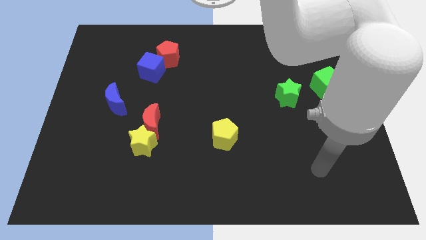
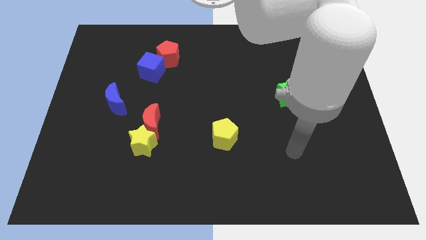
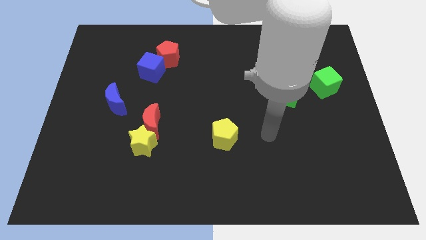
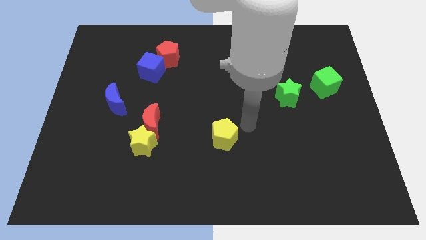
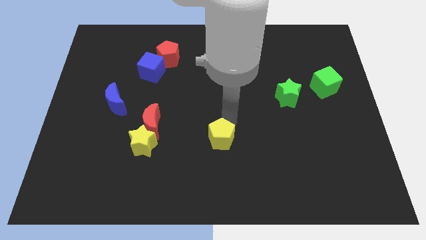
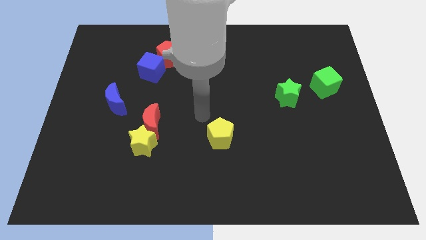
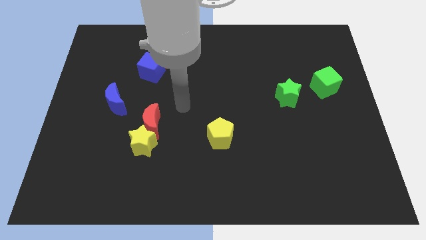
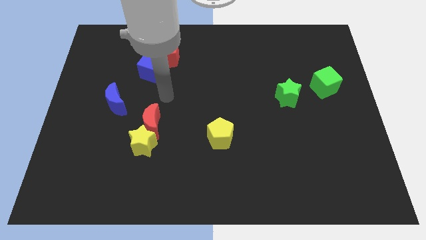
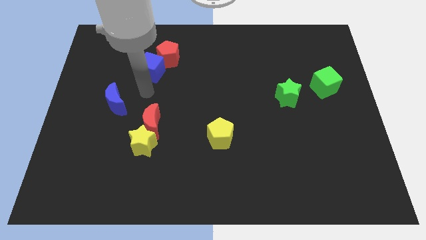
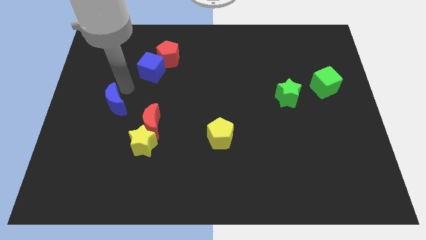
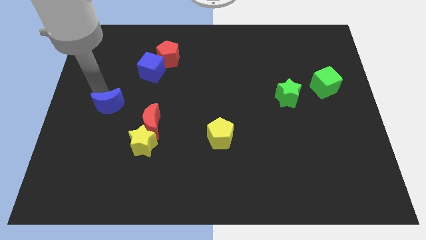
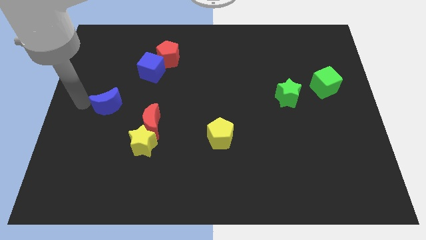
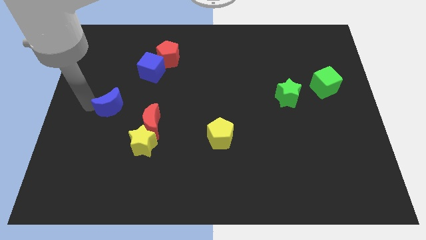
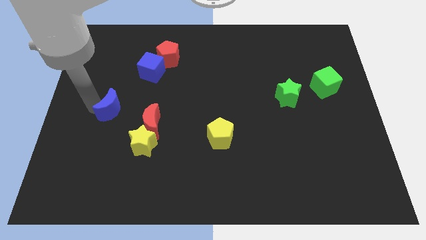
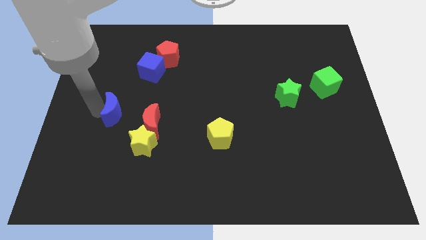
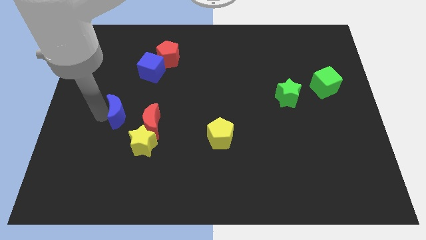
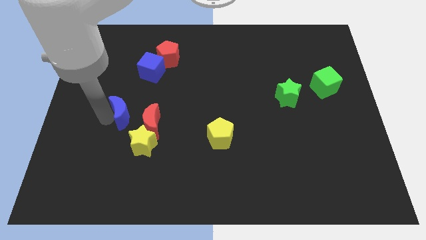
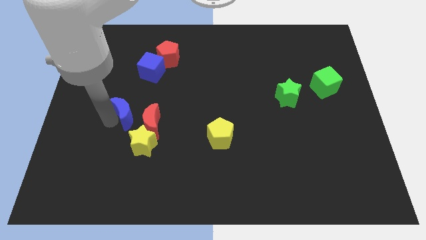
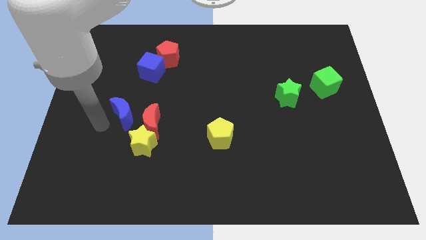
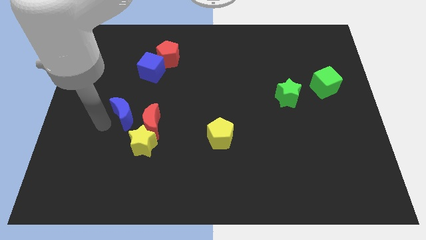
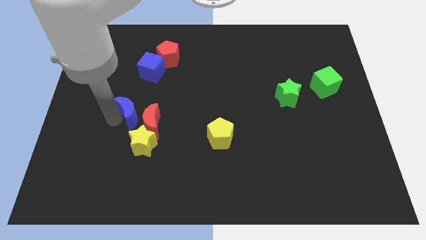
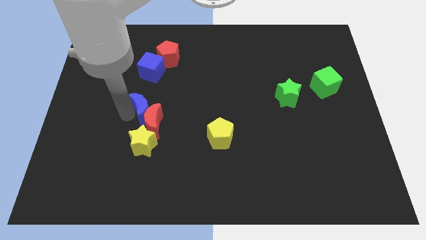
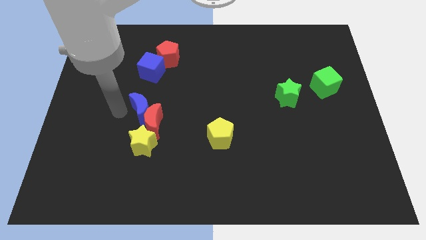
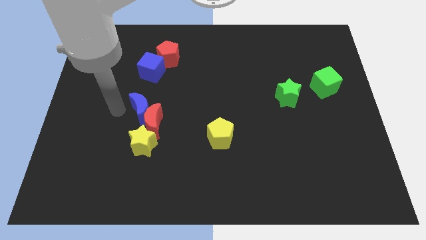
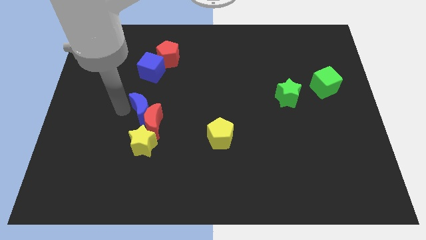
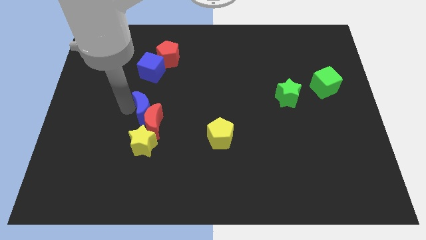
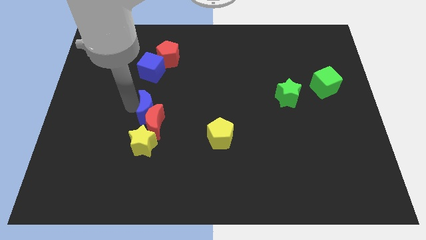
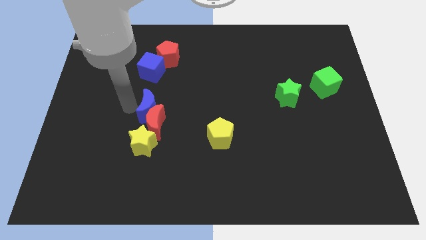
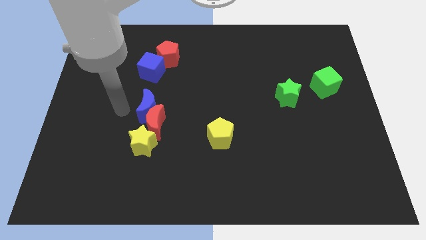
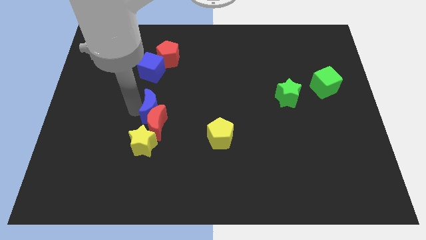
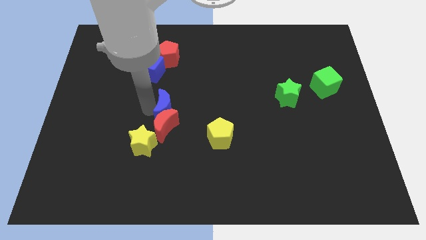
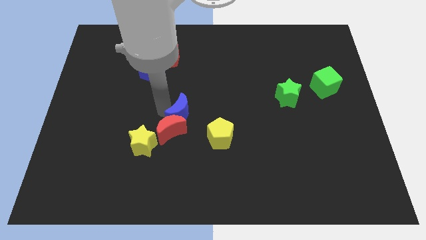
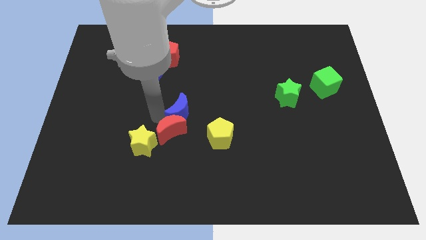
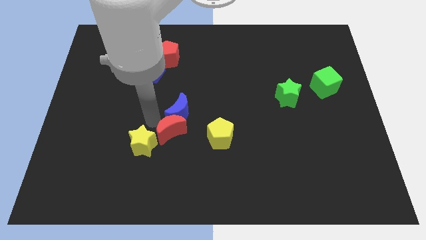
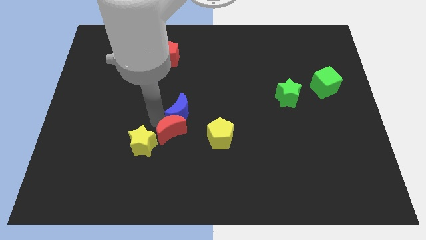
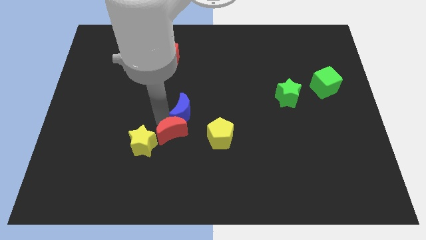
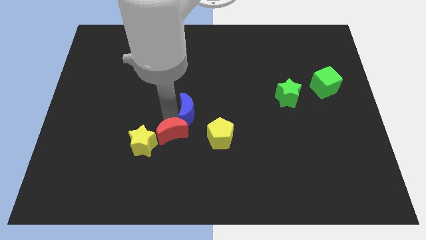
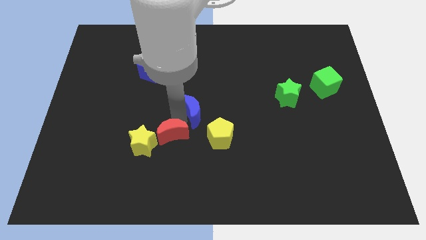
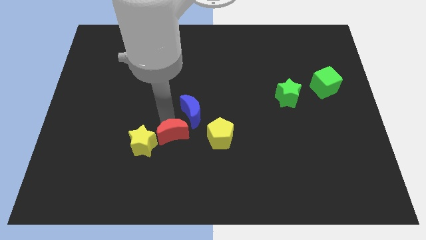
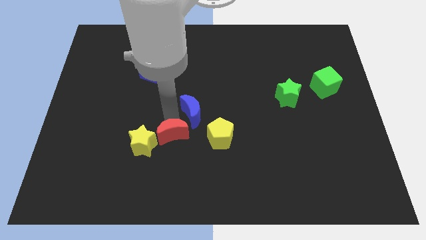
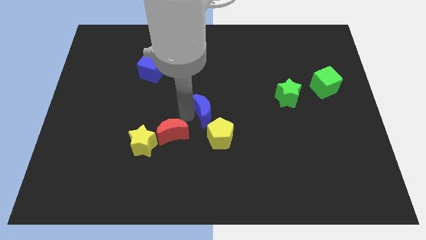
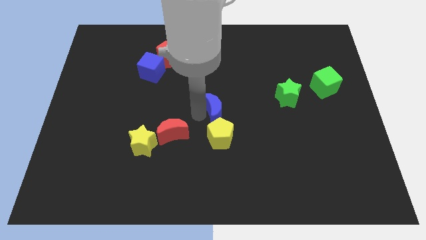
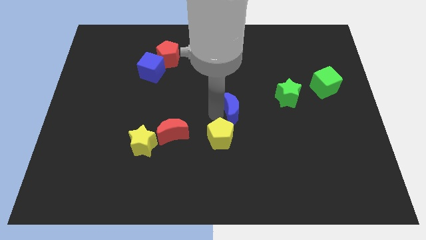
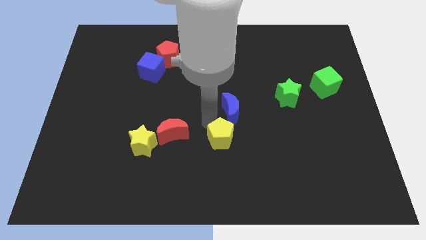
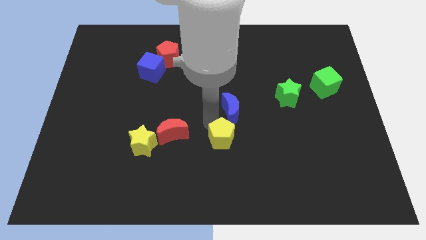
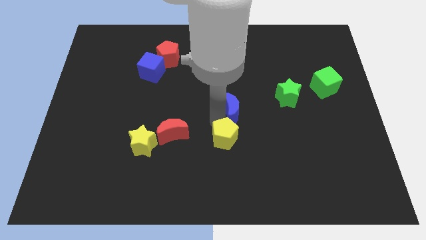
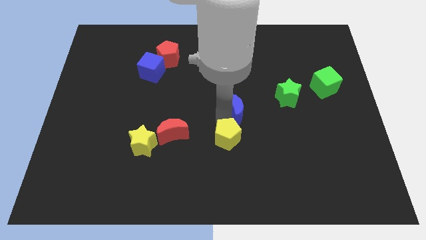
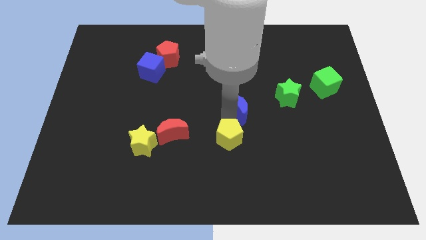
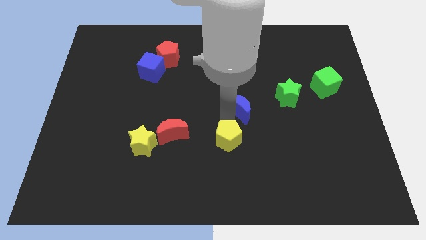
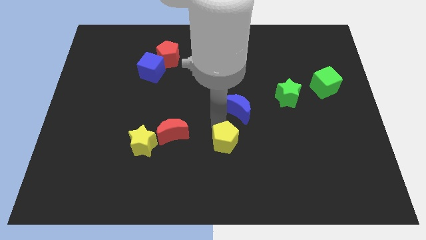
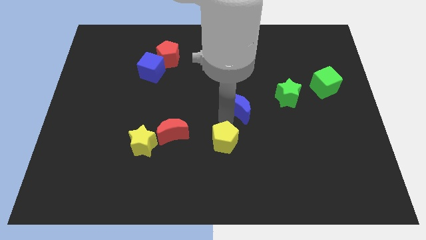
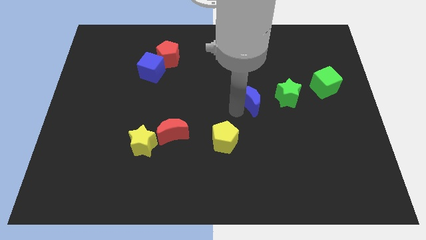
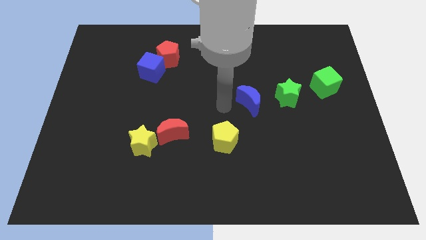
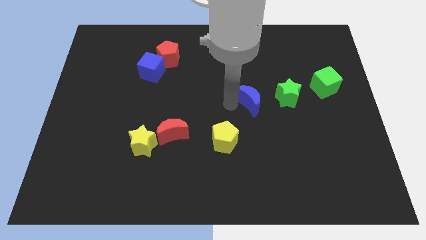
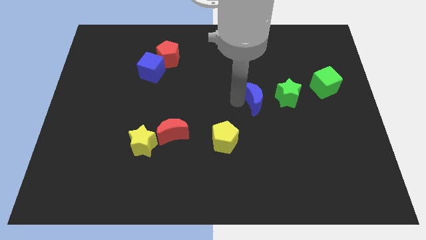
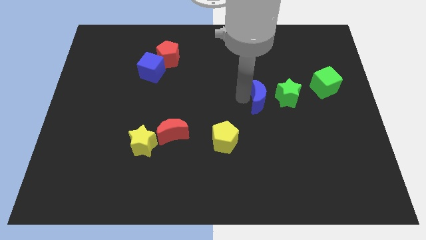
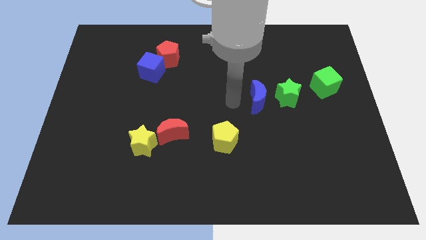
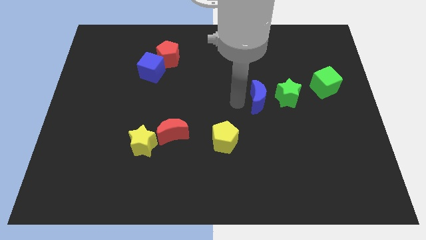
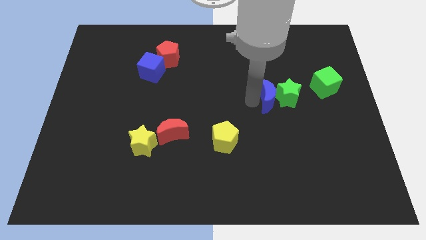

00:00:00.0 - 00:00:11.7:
push the blue moon next to the green star

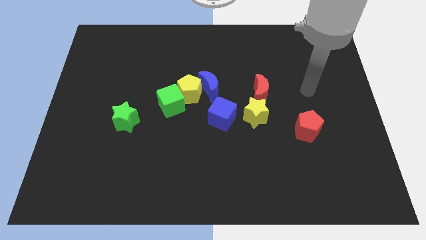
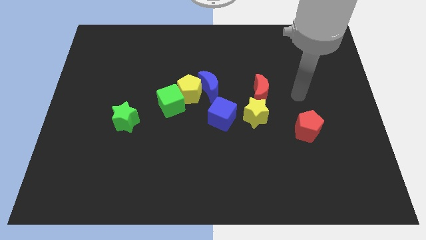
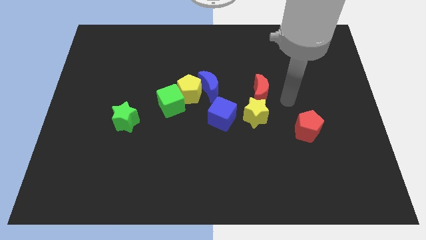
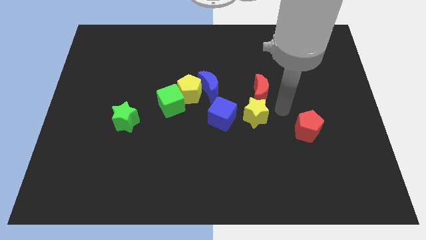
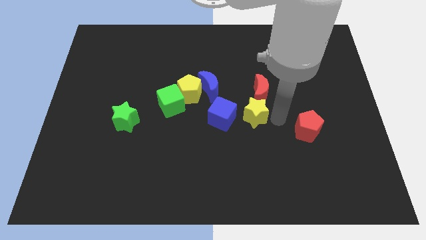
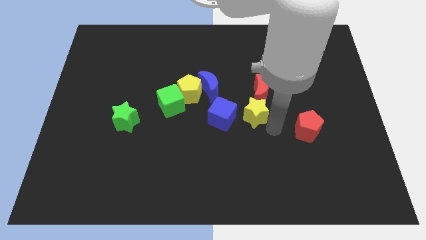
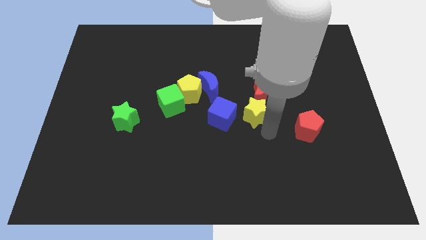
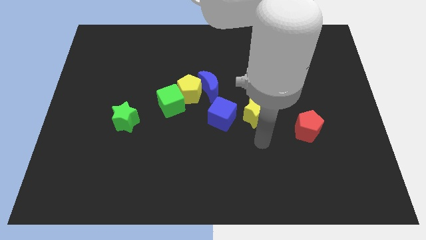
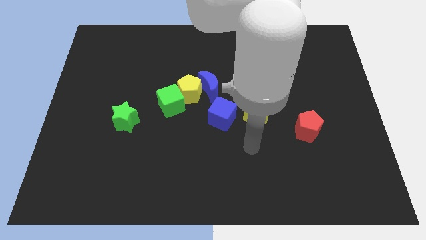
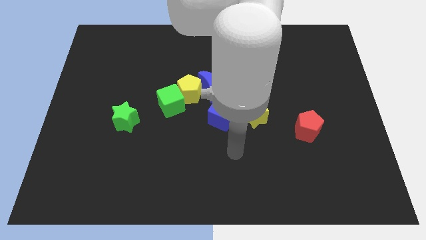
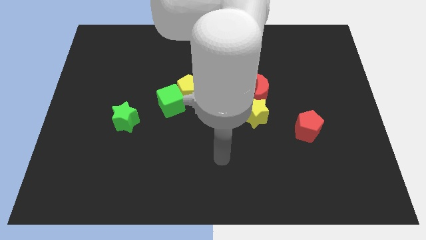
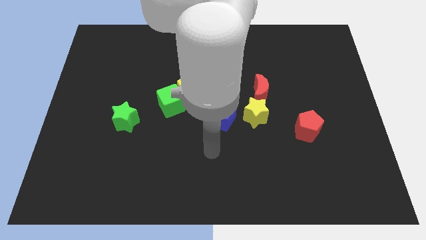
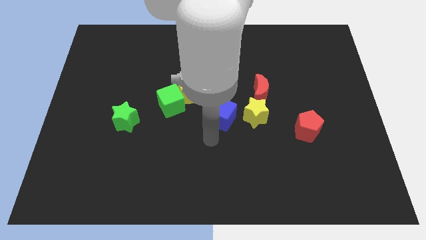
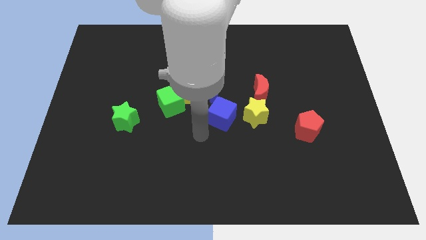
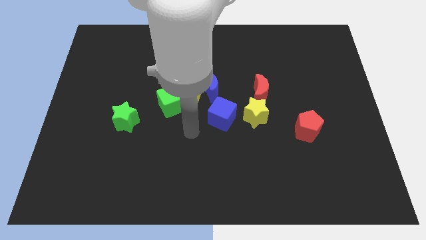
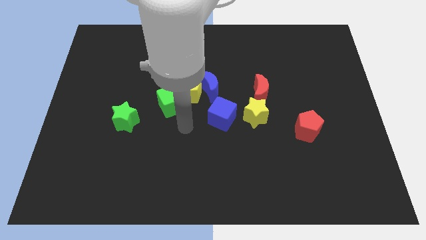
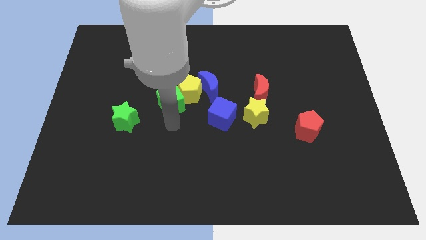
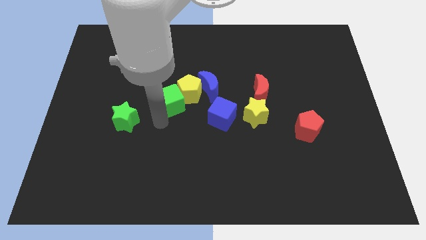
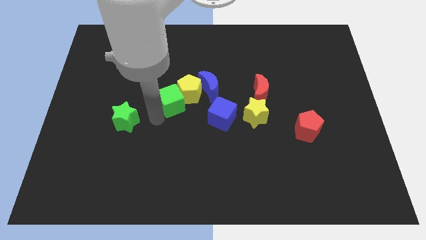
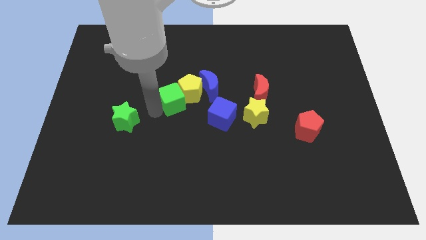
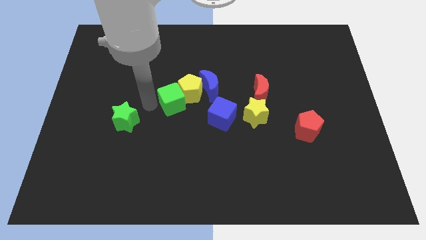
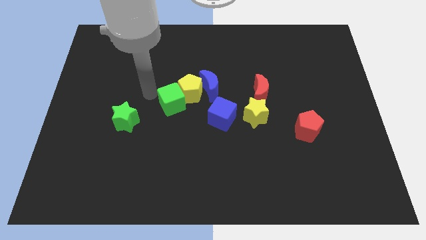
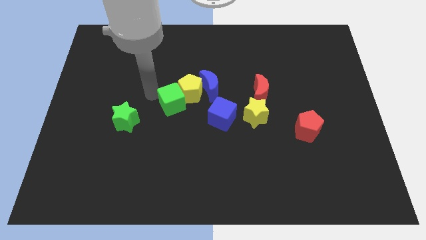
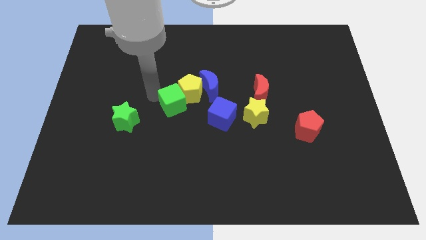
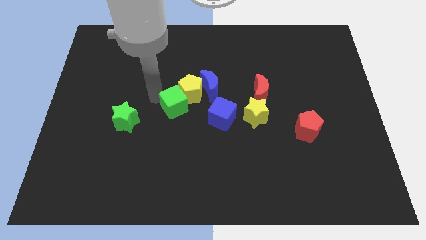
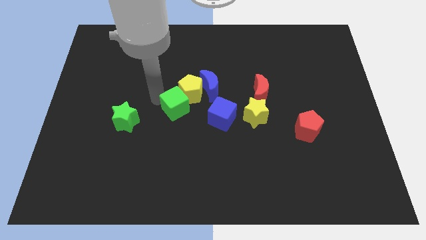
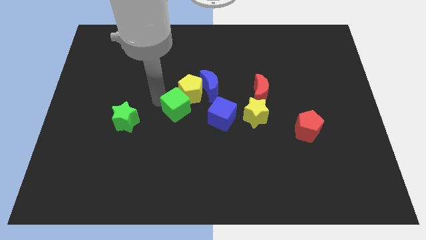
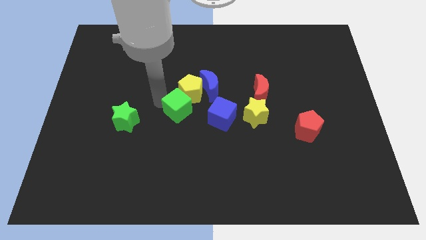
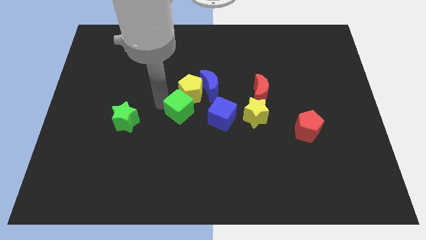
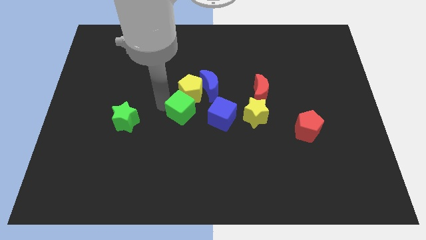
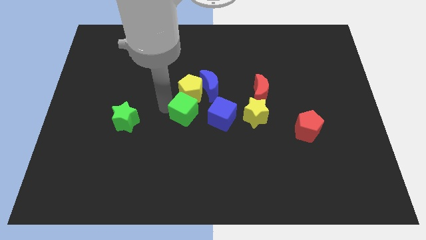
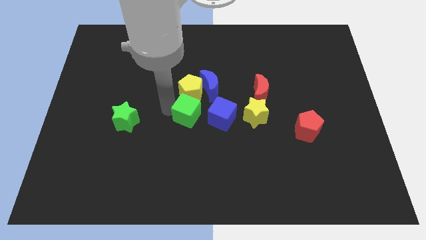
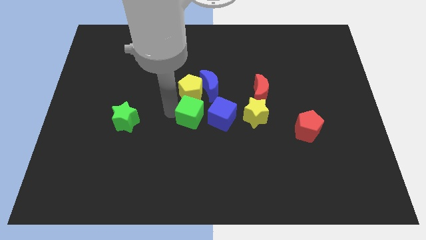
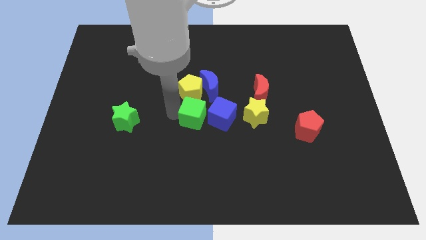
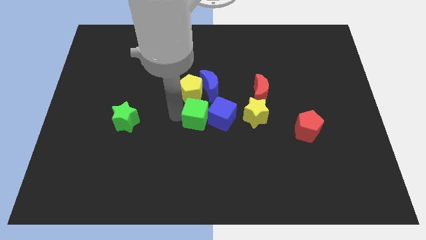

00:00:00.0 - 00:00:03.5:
put the green cube close to the blue cube
